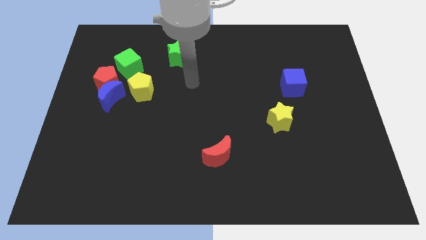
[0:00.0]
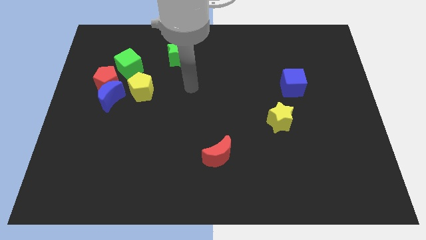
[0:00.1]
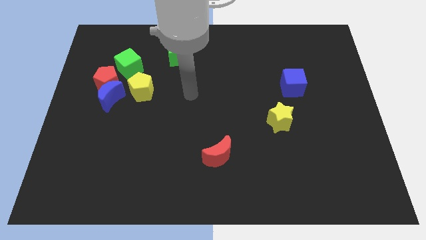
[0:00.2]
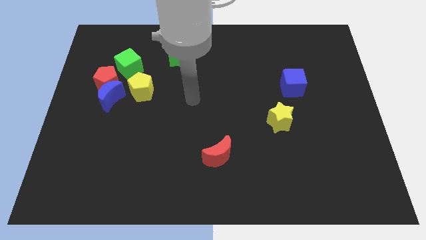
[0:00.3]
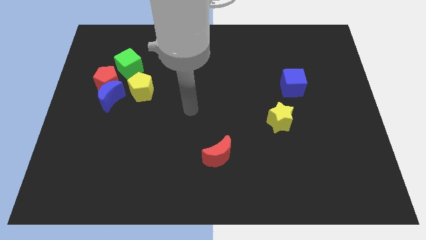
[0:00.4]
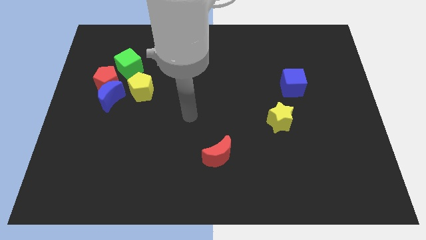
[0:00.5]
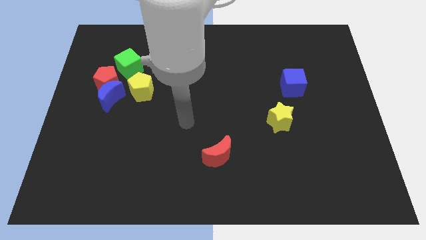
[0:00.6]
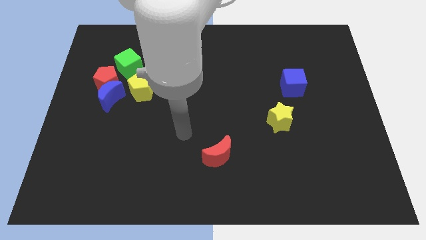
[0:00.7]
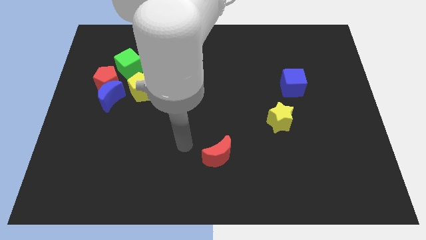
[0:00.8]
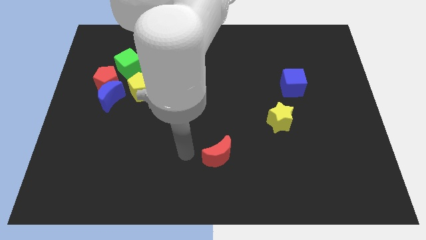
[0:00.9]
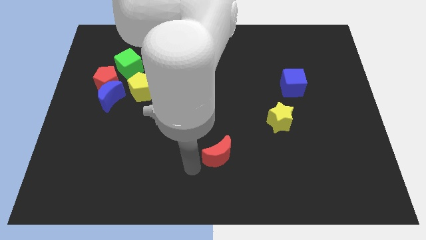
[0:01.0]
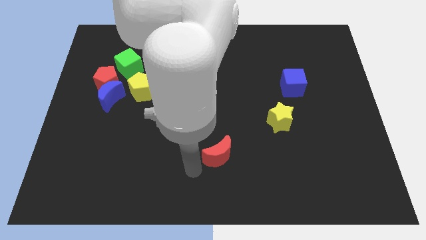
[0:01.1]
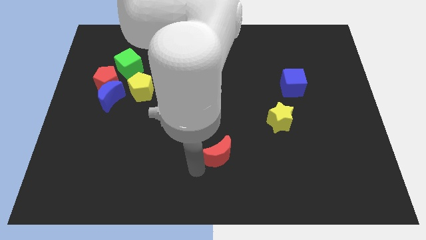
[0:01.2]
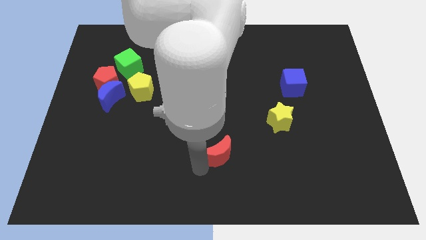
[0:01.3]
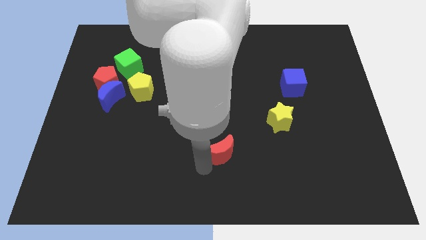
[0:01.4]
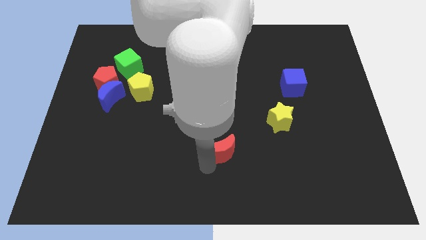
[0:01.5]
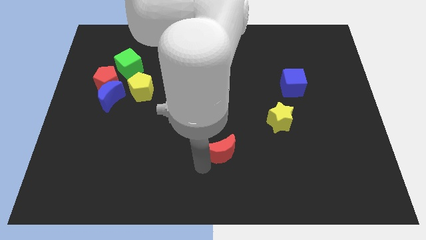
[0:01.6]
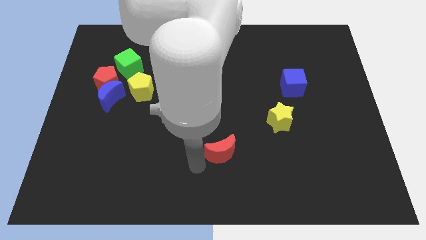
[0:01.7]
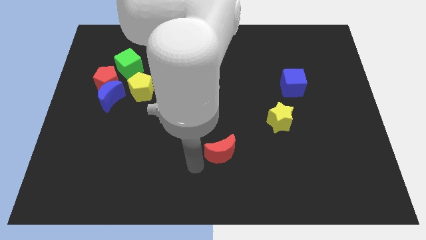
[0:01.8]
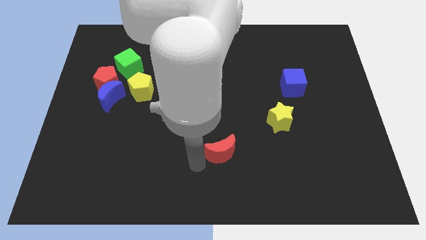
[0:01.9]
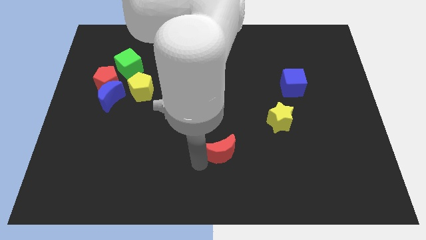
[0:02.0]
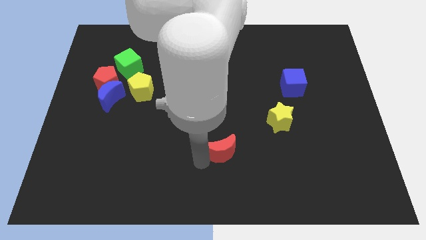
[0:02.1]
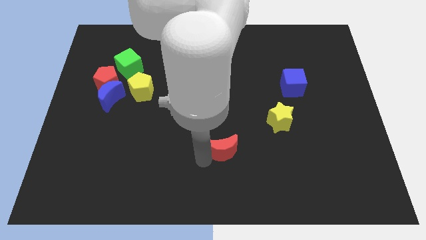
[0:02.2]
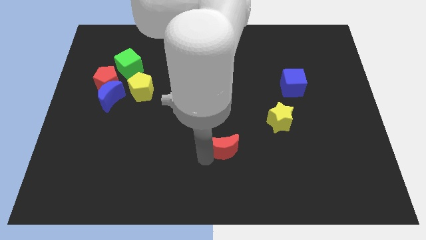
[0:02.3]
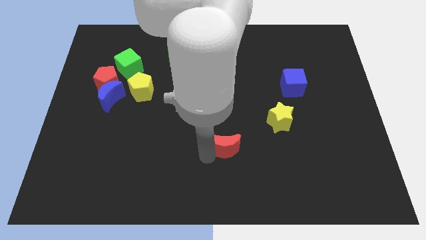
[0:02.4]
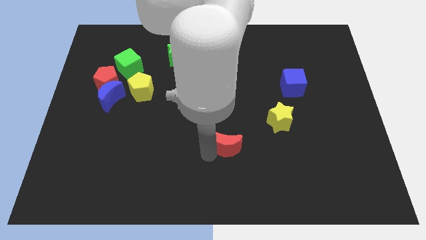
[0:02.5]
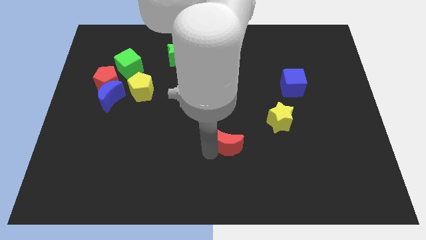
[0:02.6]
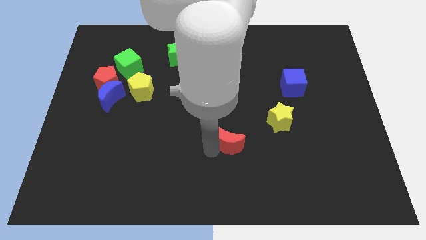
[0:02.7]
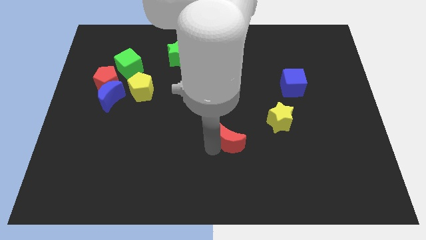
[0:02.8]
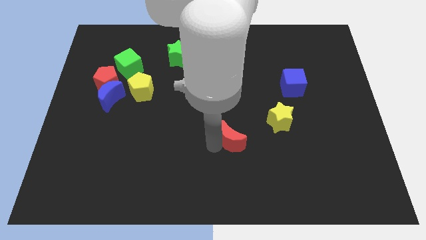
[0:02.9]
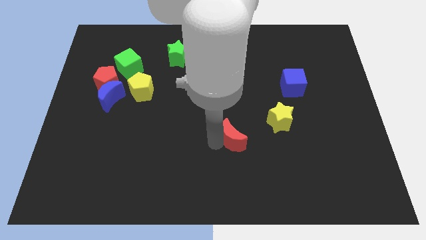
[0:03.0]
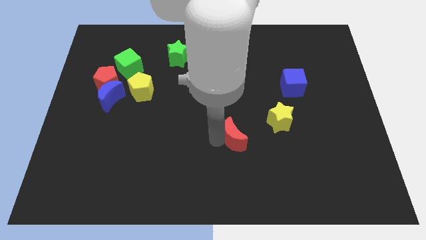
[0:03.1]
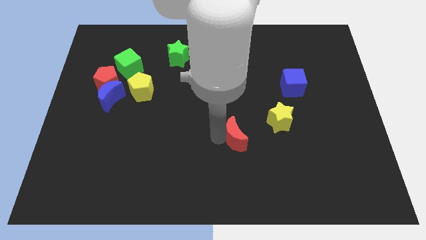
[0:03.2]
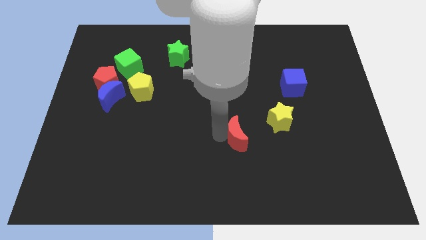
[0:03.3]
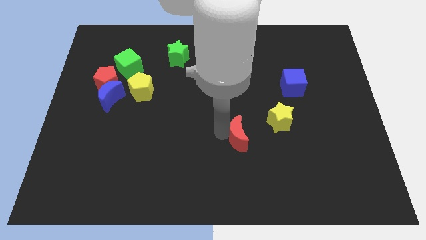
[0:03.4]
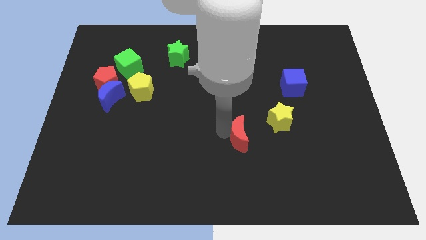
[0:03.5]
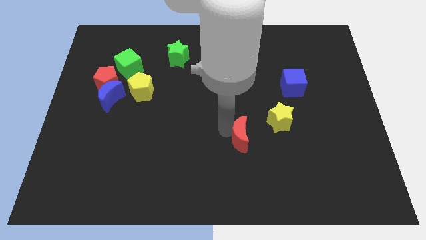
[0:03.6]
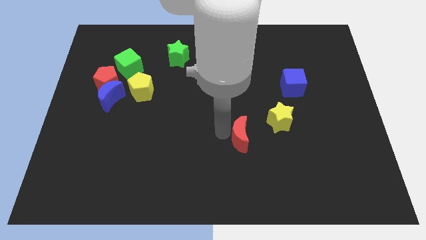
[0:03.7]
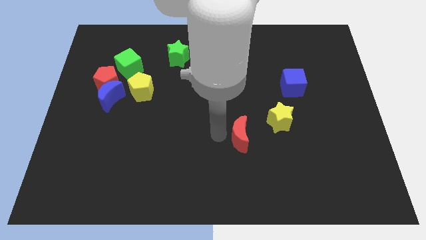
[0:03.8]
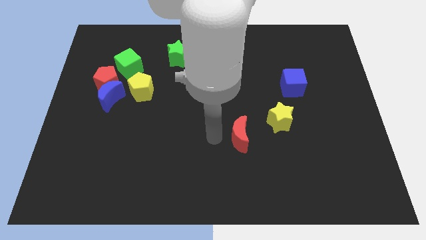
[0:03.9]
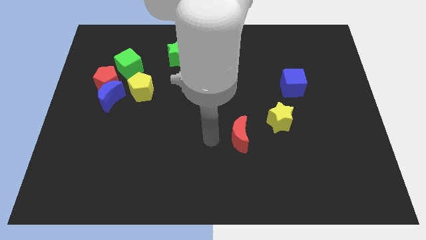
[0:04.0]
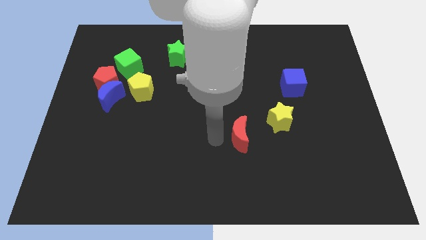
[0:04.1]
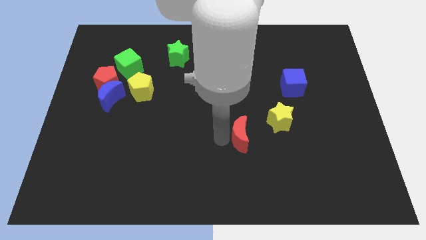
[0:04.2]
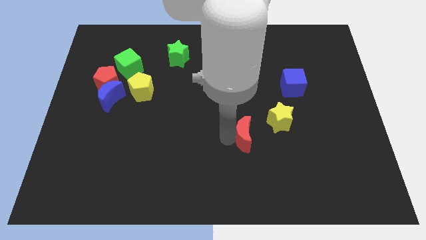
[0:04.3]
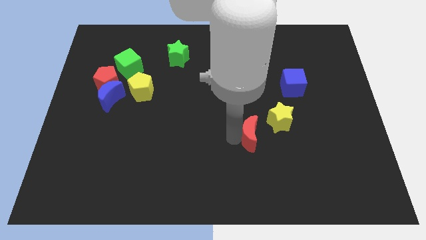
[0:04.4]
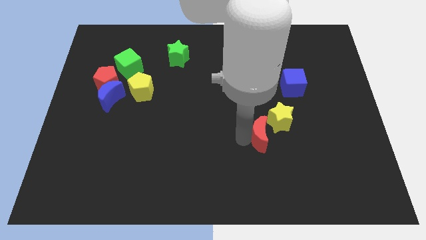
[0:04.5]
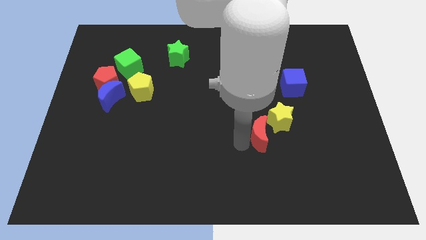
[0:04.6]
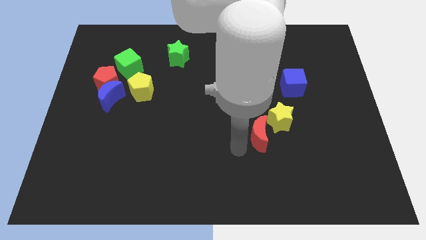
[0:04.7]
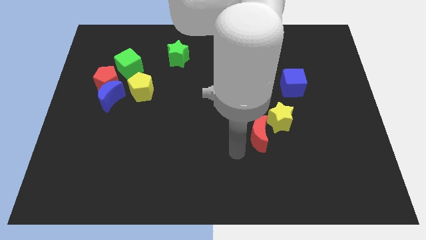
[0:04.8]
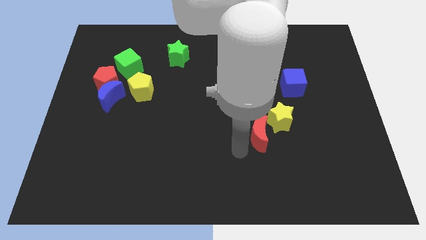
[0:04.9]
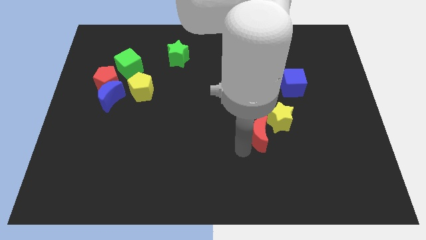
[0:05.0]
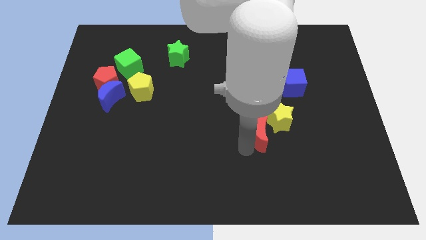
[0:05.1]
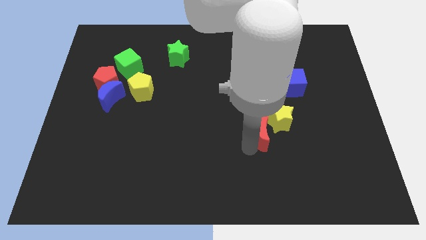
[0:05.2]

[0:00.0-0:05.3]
push the red moon close to the yellow star
